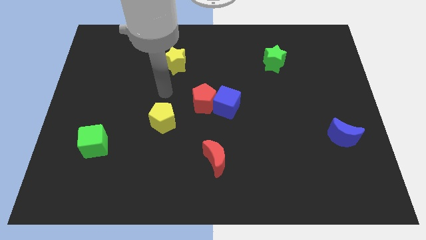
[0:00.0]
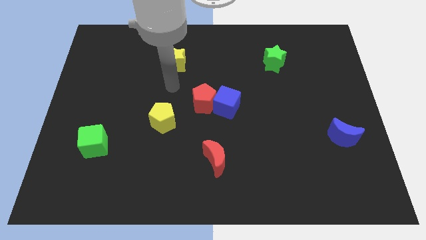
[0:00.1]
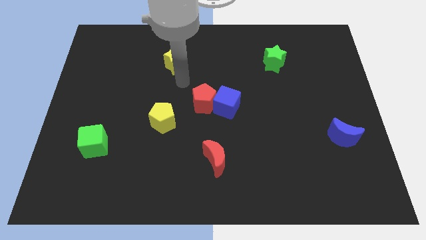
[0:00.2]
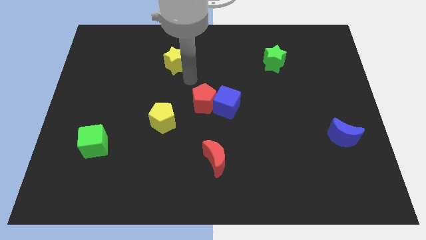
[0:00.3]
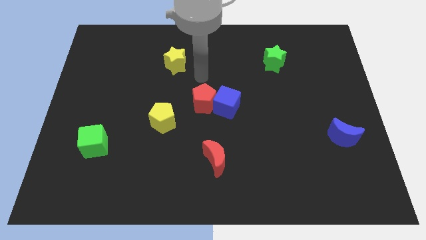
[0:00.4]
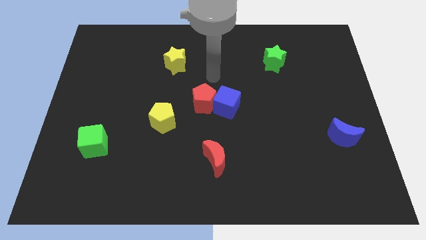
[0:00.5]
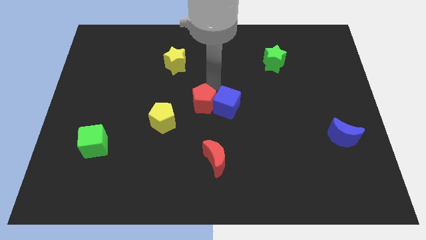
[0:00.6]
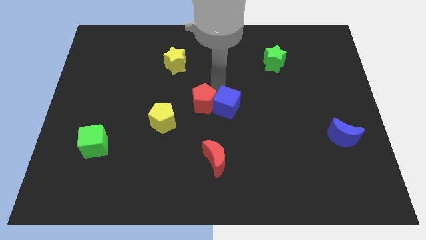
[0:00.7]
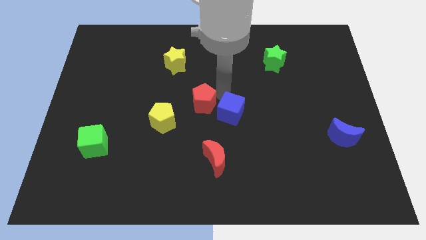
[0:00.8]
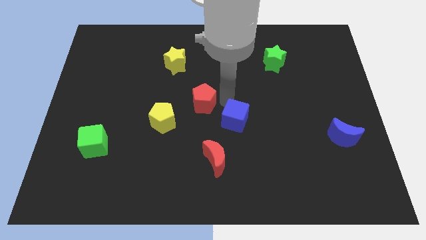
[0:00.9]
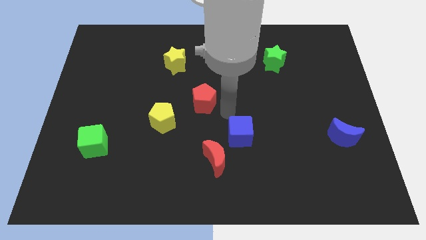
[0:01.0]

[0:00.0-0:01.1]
move the red pentagon away from the blue cube

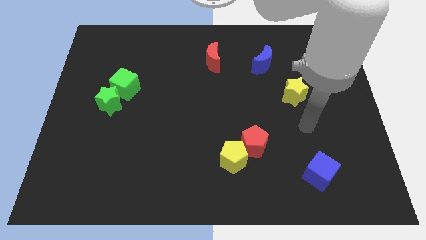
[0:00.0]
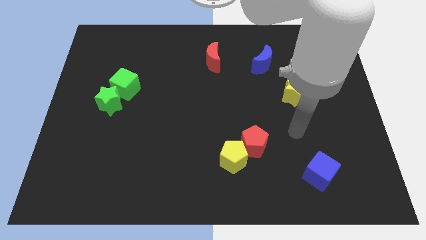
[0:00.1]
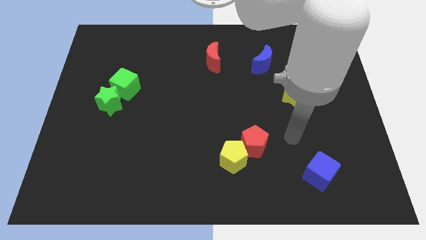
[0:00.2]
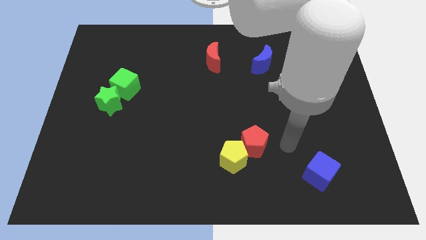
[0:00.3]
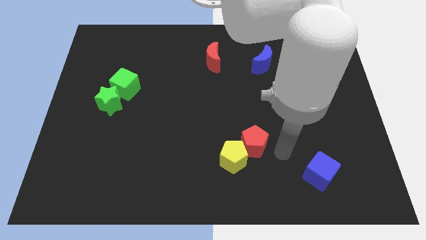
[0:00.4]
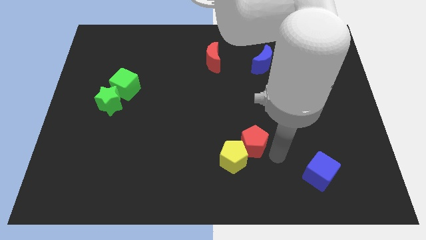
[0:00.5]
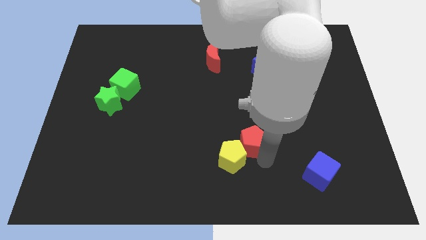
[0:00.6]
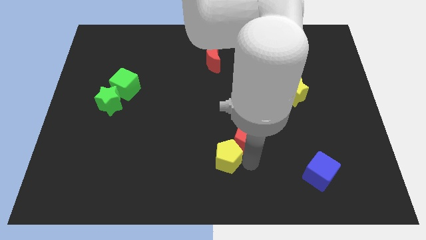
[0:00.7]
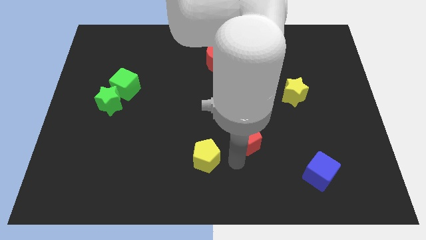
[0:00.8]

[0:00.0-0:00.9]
separate the red pentagon from the yellow pentagon

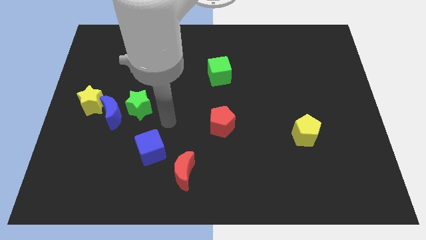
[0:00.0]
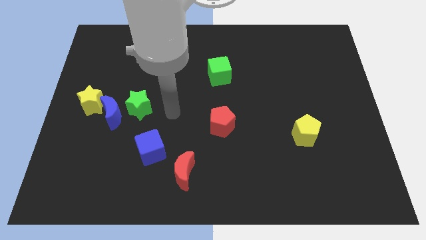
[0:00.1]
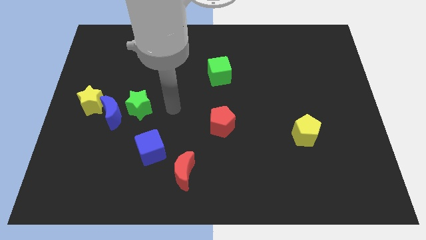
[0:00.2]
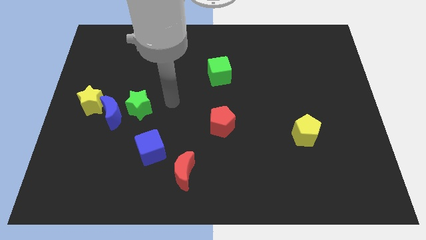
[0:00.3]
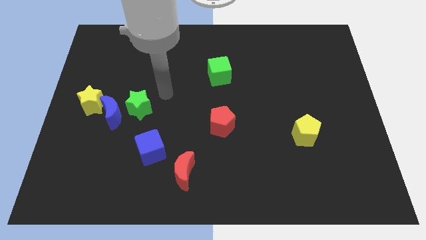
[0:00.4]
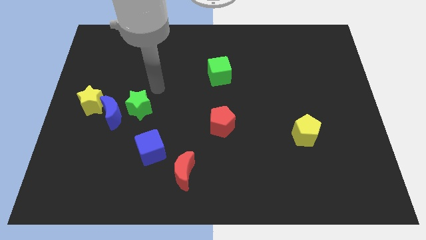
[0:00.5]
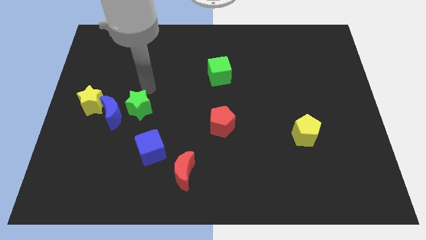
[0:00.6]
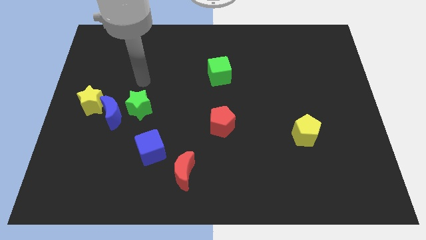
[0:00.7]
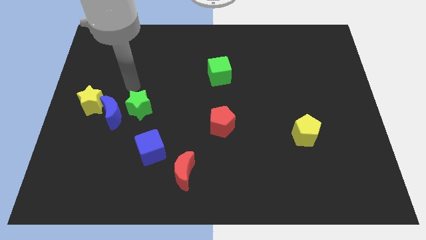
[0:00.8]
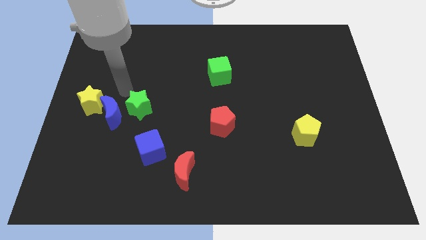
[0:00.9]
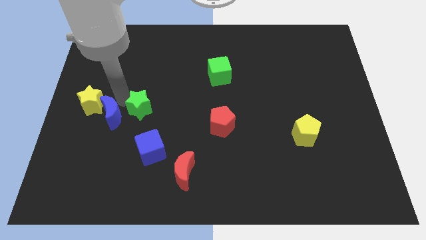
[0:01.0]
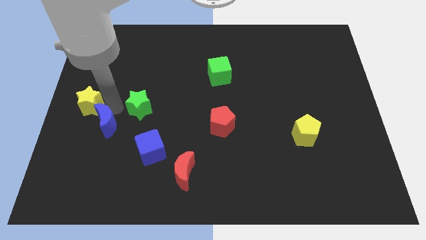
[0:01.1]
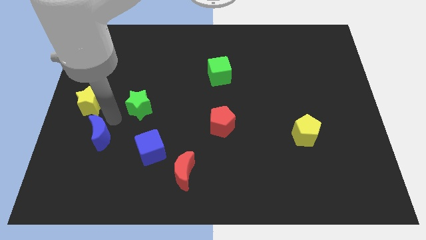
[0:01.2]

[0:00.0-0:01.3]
separate the green star from the blue moon

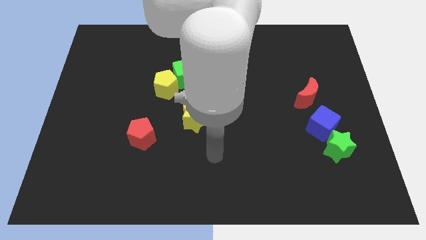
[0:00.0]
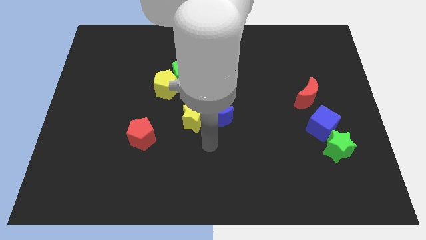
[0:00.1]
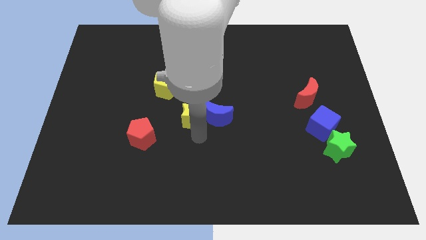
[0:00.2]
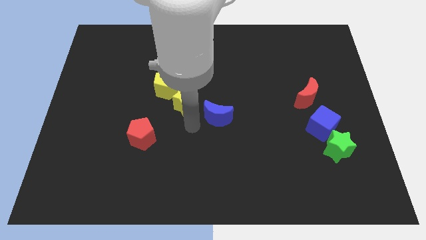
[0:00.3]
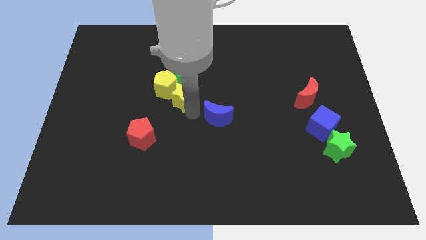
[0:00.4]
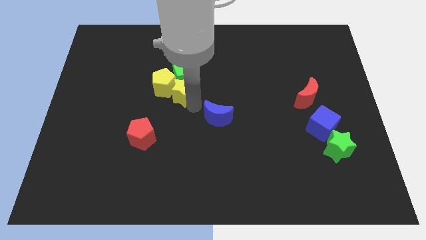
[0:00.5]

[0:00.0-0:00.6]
pull the blue moon apart from the yellow star

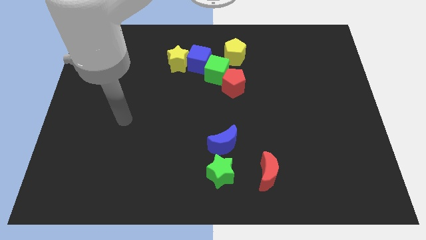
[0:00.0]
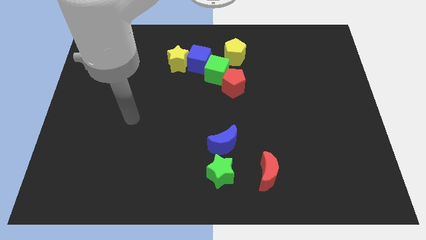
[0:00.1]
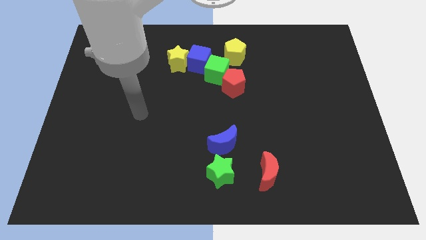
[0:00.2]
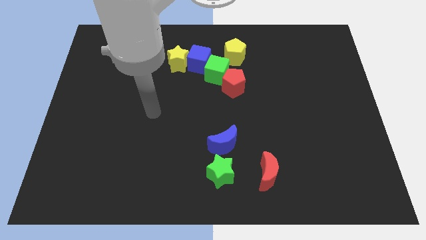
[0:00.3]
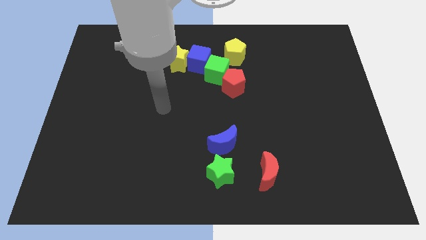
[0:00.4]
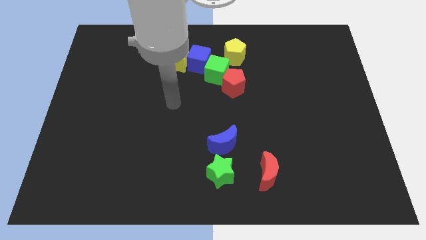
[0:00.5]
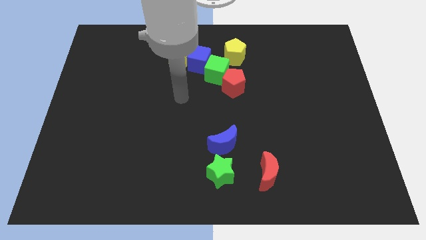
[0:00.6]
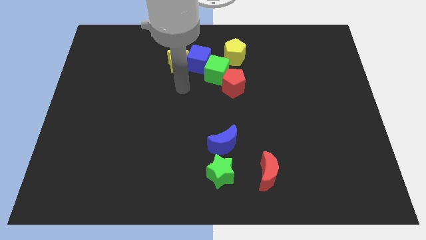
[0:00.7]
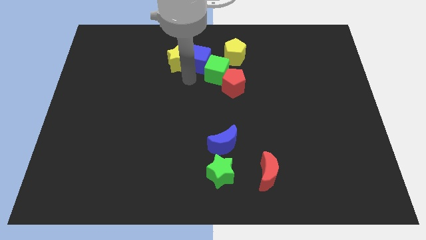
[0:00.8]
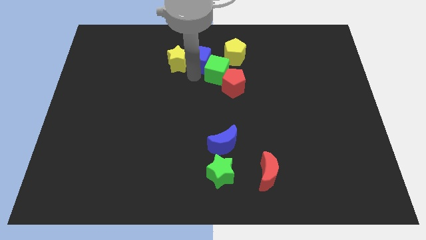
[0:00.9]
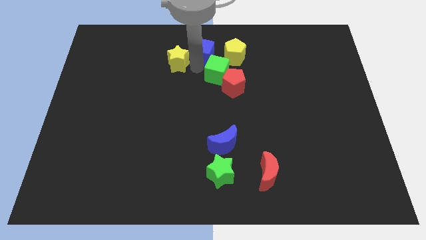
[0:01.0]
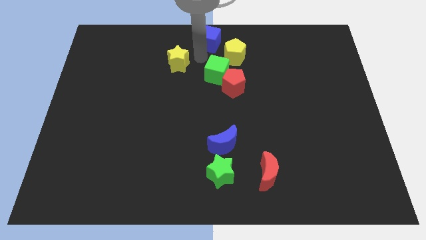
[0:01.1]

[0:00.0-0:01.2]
pull the yellow star apart from the blue cube

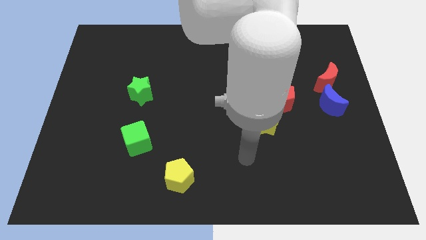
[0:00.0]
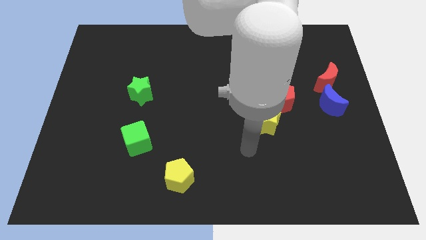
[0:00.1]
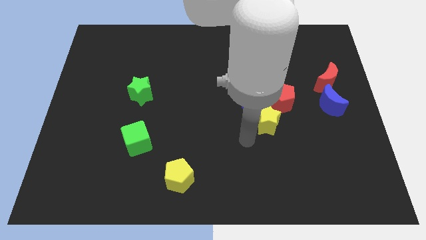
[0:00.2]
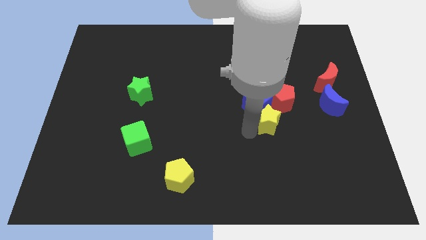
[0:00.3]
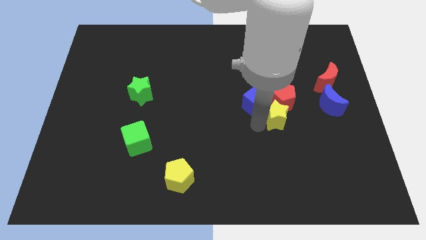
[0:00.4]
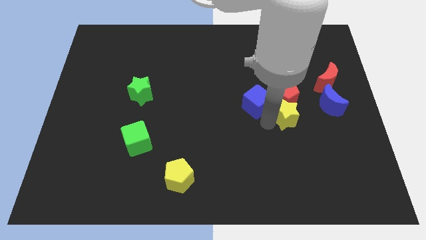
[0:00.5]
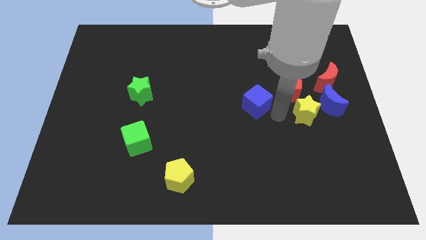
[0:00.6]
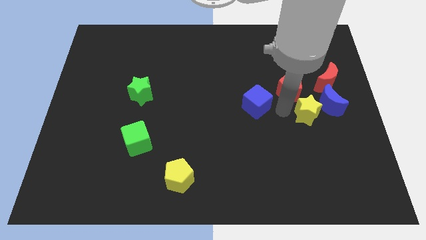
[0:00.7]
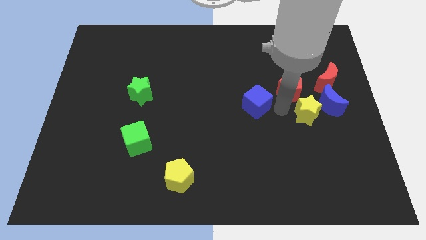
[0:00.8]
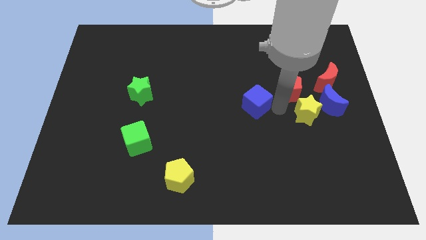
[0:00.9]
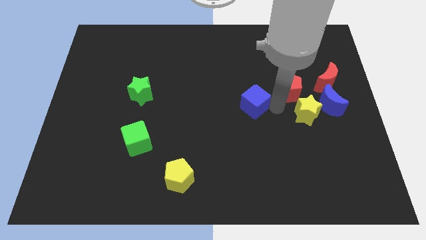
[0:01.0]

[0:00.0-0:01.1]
pull the blue cube apart from the yellow star and red pentagon

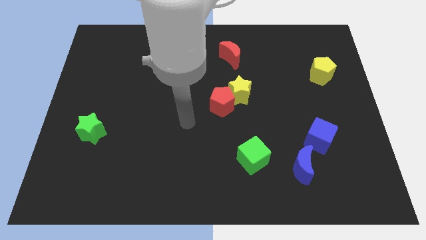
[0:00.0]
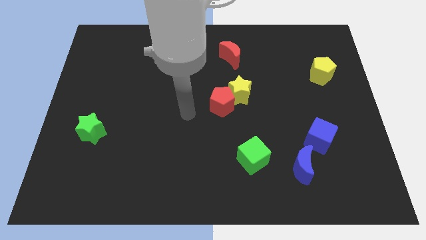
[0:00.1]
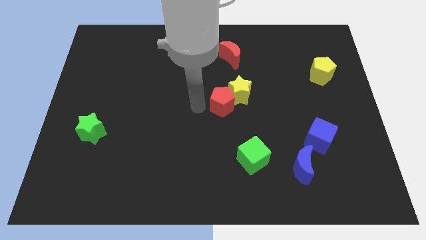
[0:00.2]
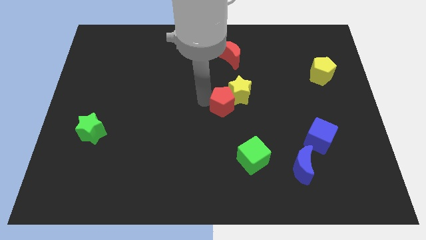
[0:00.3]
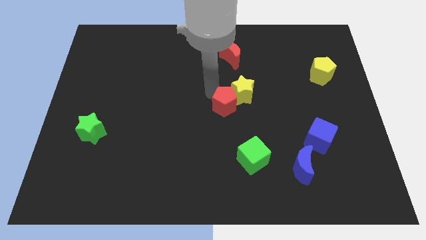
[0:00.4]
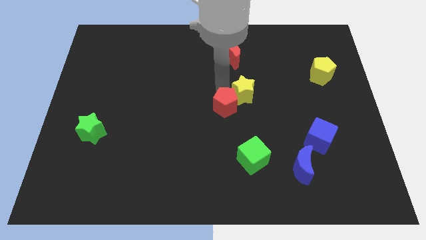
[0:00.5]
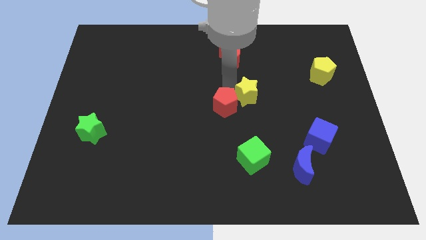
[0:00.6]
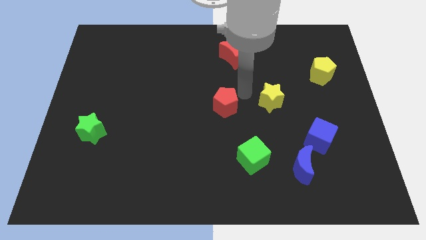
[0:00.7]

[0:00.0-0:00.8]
separate the red pentagon from the yellow star

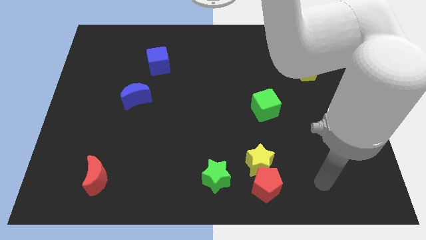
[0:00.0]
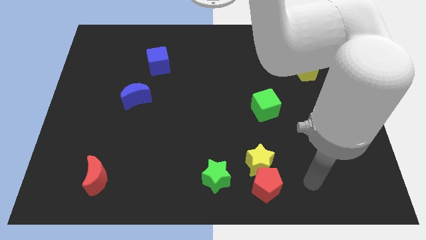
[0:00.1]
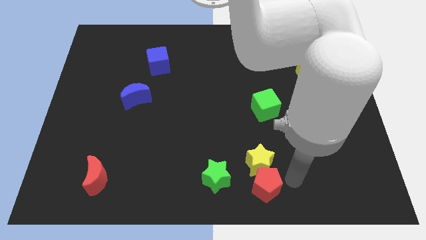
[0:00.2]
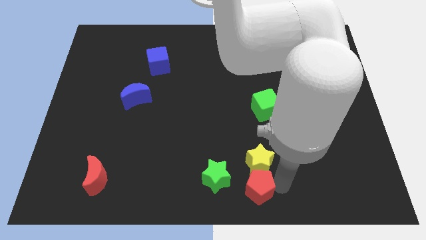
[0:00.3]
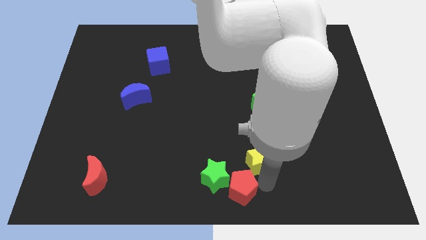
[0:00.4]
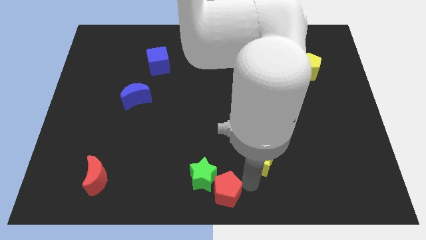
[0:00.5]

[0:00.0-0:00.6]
move the yellow star away from the red pentagon and green star

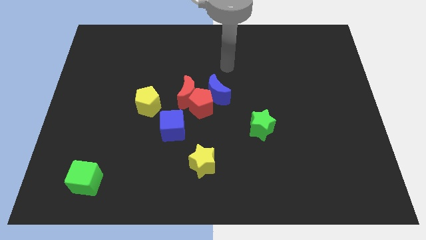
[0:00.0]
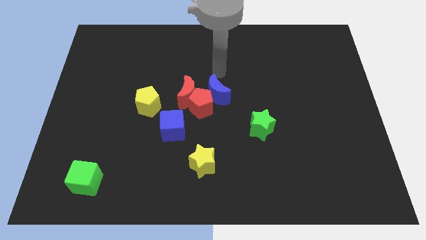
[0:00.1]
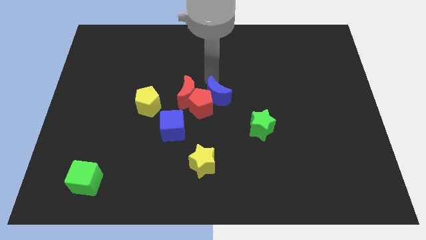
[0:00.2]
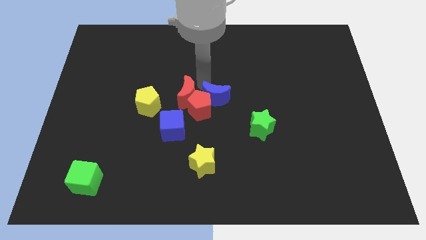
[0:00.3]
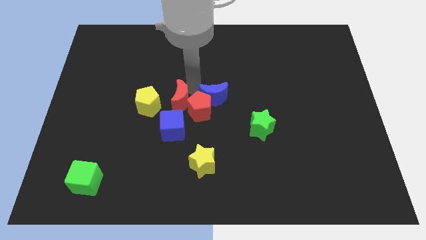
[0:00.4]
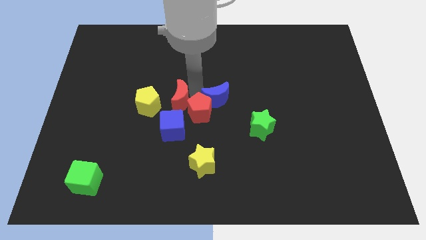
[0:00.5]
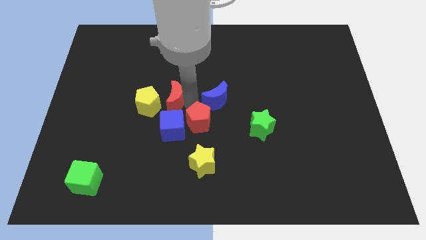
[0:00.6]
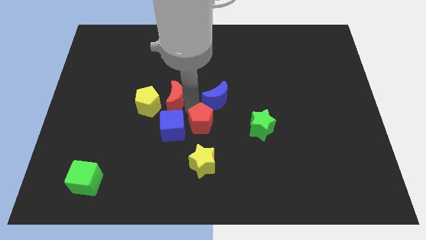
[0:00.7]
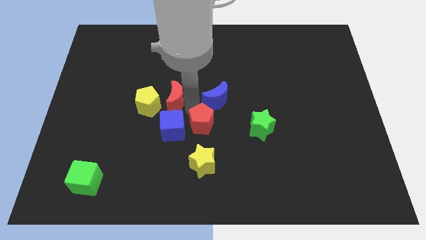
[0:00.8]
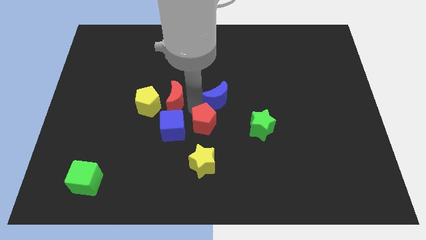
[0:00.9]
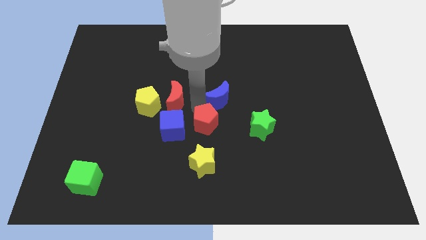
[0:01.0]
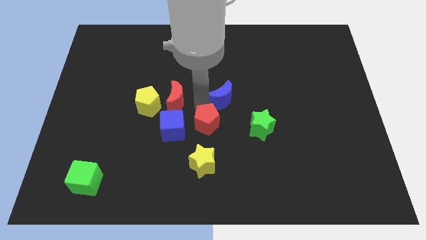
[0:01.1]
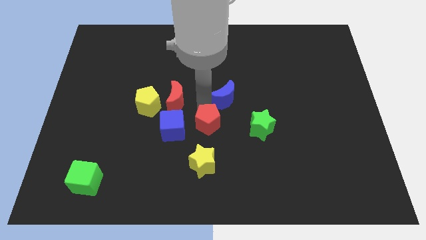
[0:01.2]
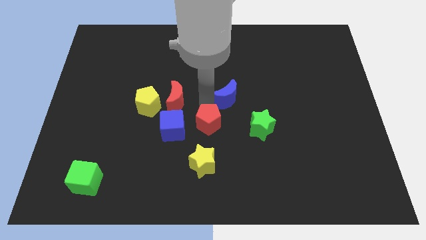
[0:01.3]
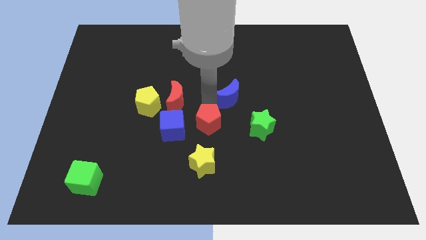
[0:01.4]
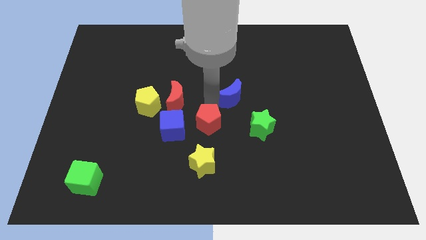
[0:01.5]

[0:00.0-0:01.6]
pull the blue moon apart from the red pentagon and red moon
